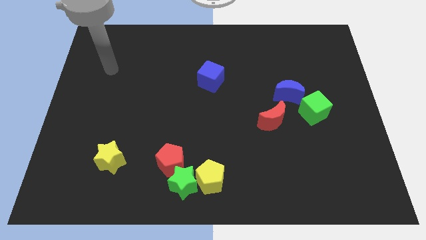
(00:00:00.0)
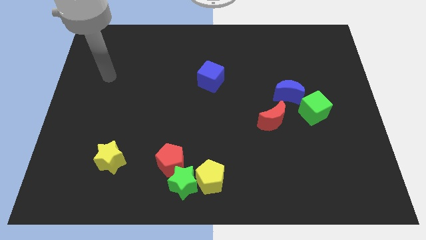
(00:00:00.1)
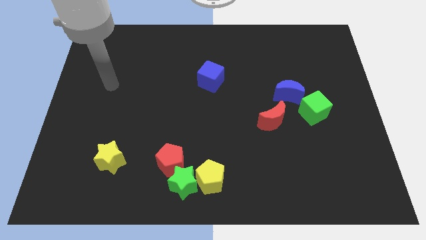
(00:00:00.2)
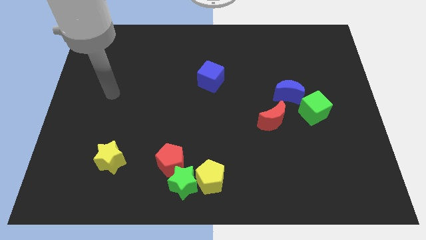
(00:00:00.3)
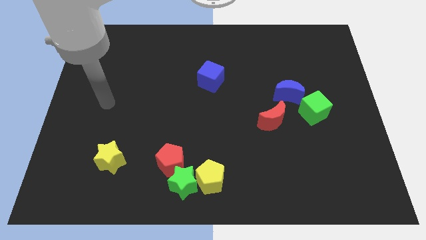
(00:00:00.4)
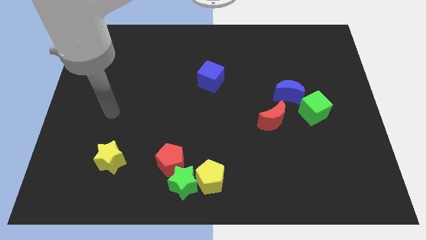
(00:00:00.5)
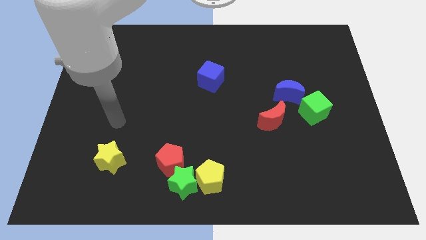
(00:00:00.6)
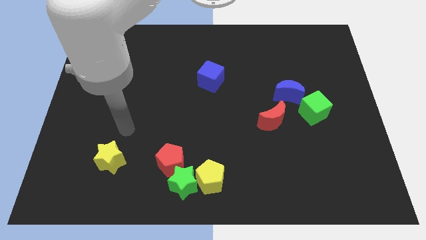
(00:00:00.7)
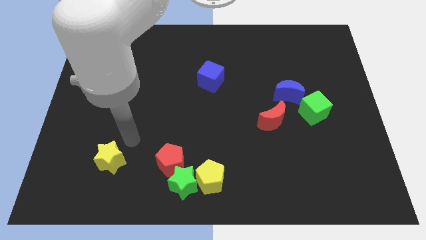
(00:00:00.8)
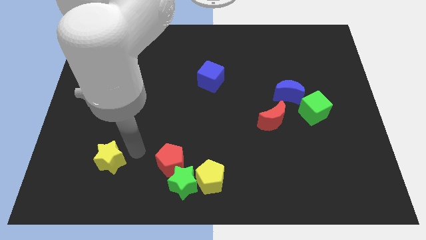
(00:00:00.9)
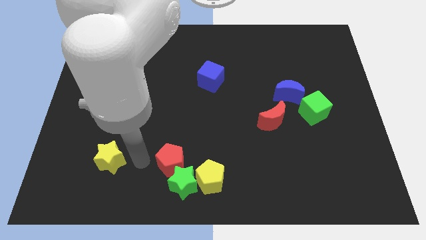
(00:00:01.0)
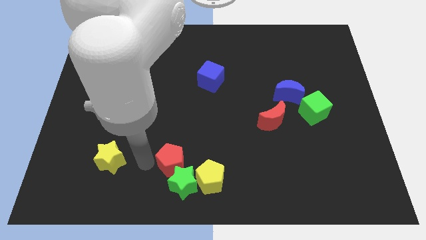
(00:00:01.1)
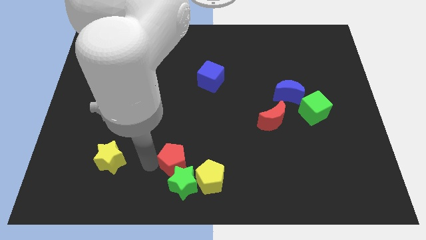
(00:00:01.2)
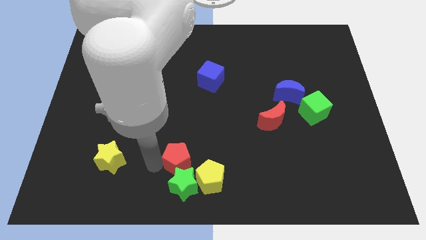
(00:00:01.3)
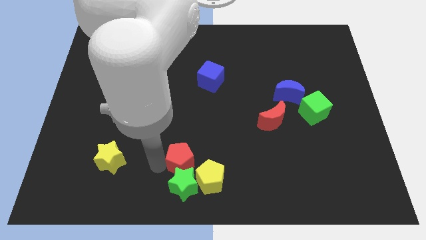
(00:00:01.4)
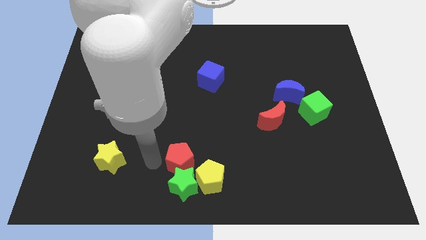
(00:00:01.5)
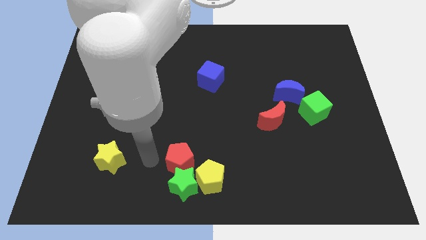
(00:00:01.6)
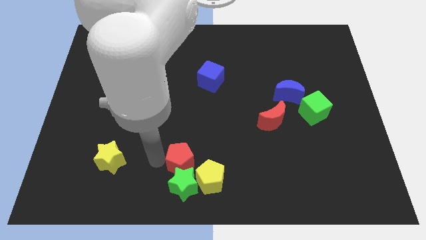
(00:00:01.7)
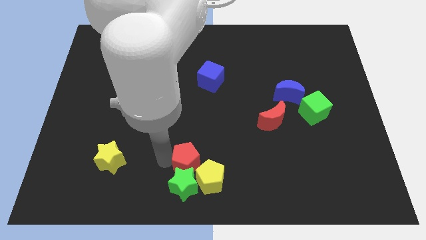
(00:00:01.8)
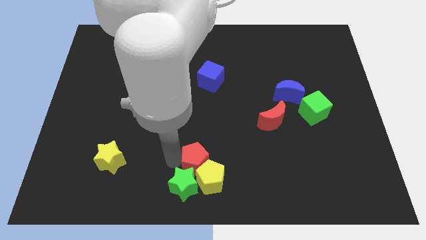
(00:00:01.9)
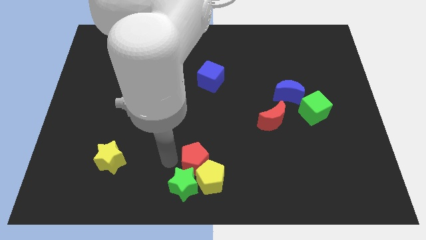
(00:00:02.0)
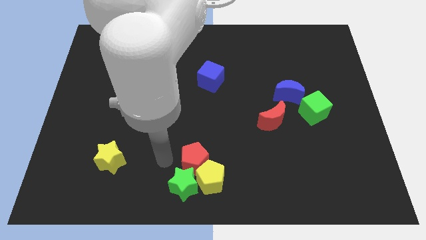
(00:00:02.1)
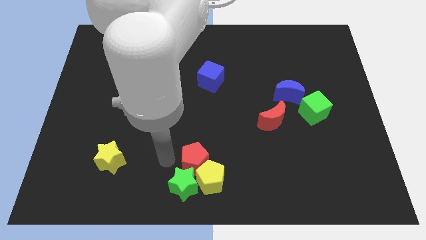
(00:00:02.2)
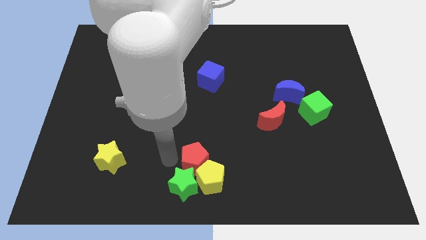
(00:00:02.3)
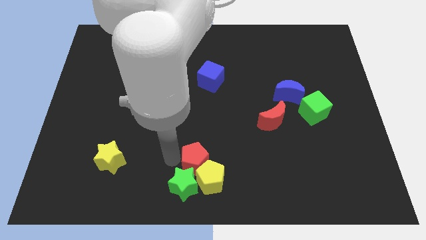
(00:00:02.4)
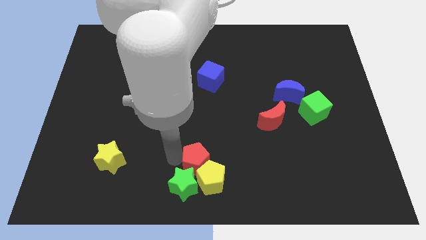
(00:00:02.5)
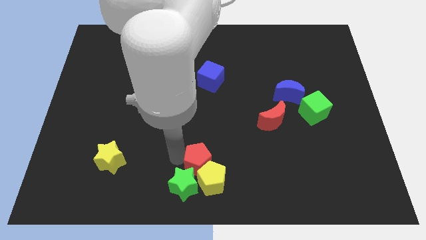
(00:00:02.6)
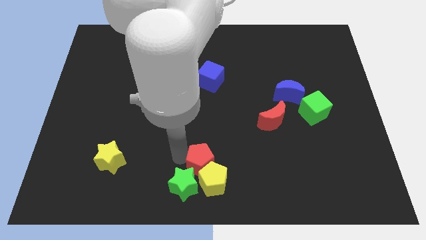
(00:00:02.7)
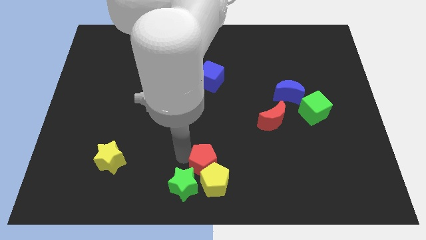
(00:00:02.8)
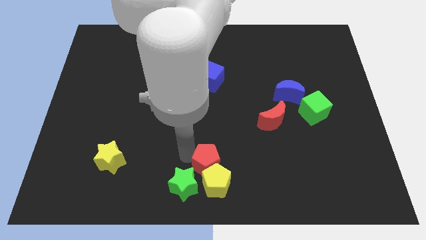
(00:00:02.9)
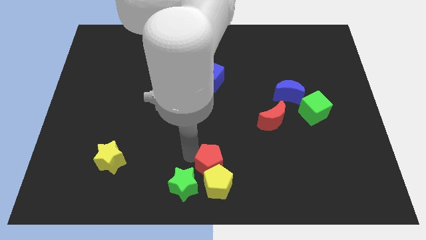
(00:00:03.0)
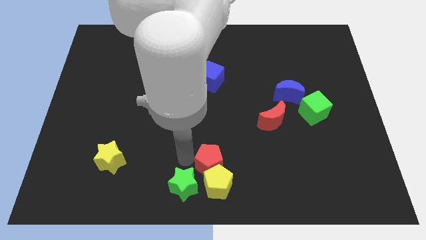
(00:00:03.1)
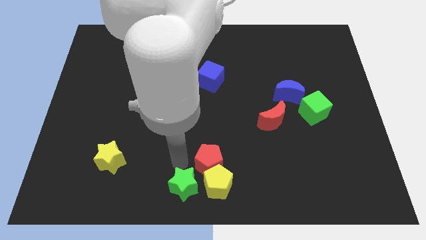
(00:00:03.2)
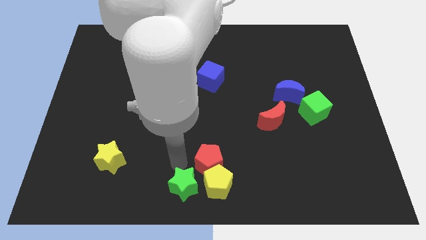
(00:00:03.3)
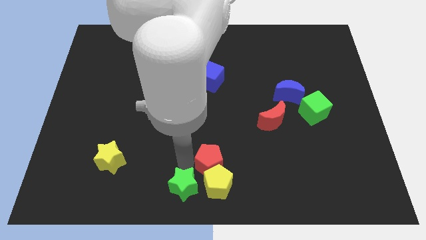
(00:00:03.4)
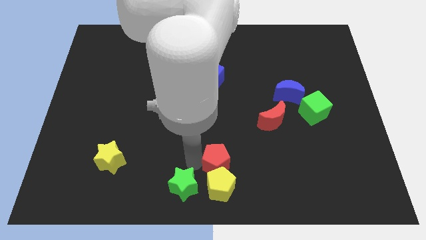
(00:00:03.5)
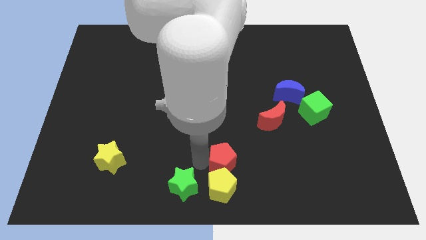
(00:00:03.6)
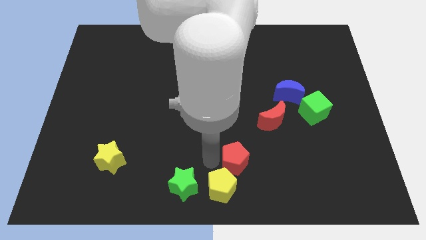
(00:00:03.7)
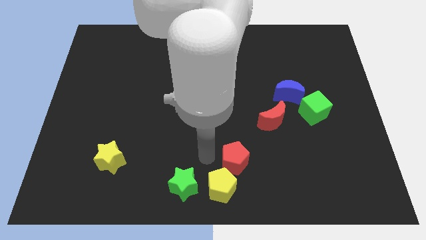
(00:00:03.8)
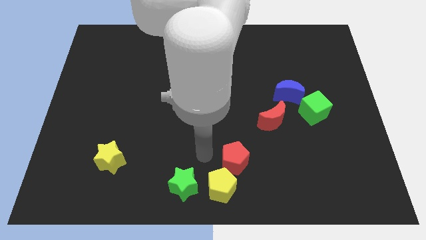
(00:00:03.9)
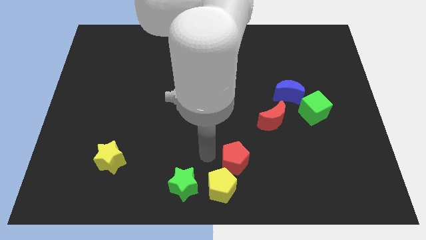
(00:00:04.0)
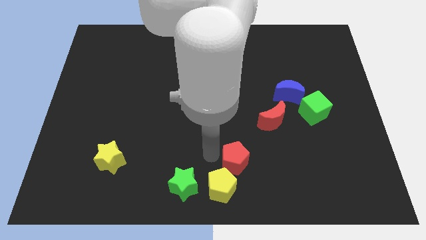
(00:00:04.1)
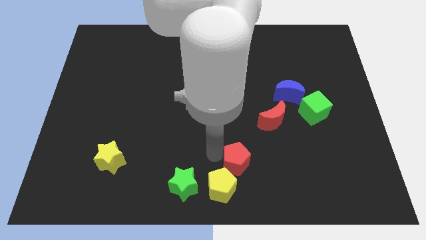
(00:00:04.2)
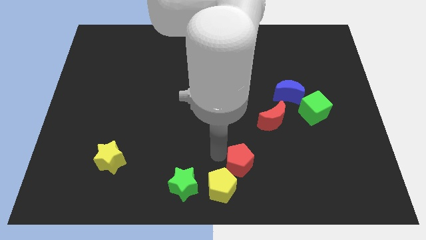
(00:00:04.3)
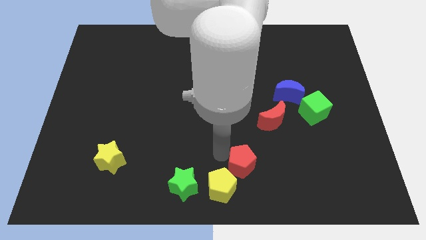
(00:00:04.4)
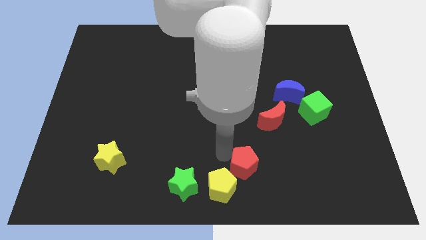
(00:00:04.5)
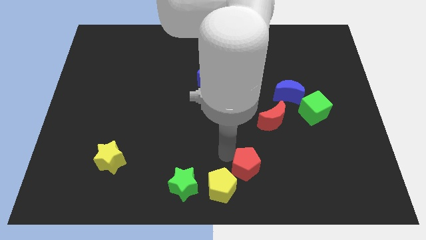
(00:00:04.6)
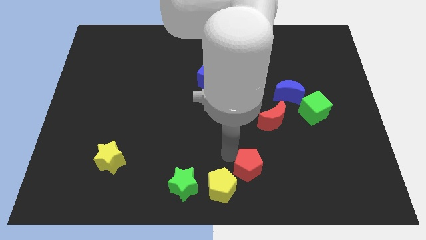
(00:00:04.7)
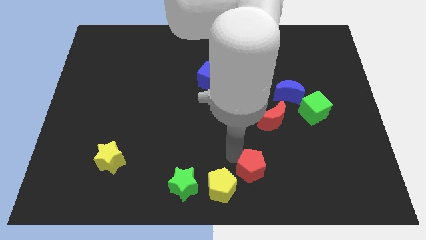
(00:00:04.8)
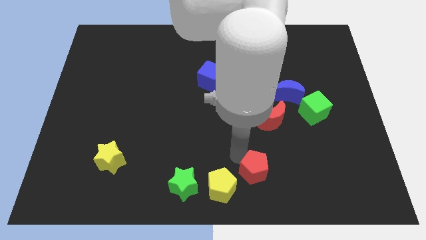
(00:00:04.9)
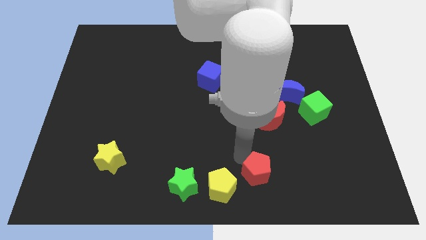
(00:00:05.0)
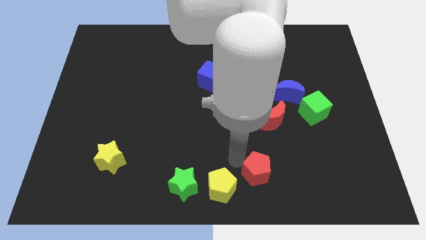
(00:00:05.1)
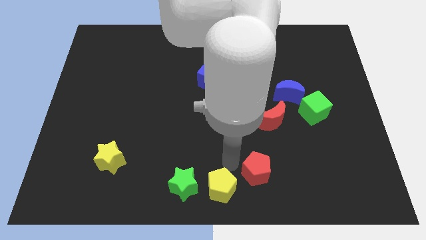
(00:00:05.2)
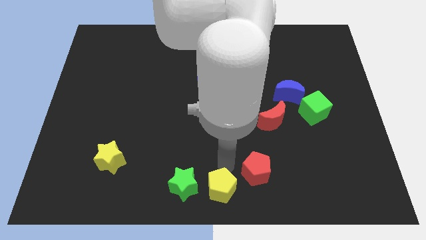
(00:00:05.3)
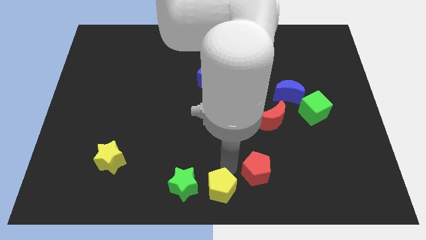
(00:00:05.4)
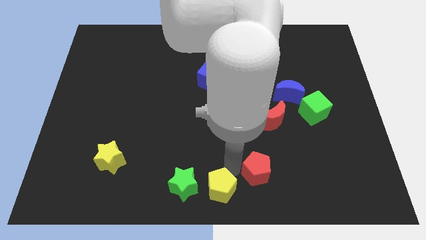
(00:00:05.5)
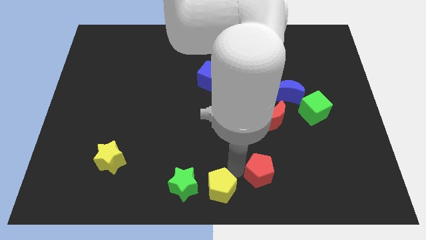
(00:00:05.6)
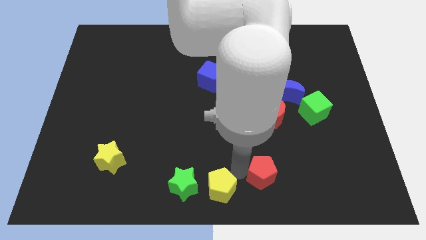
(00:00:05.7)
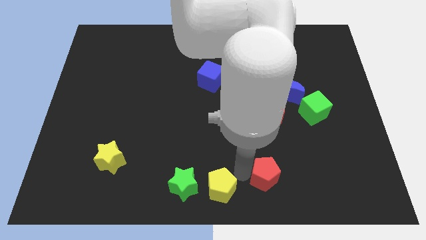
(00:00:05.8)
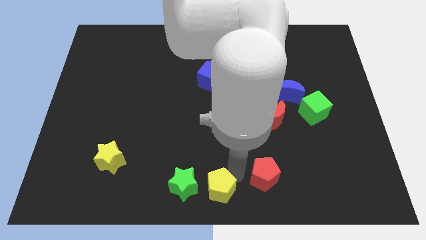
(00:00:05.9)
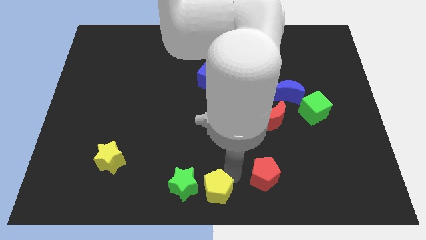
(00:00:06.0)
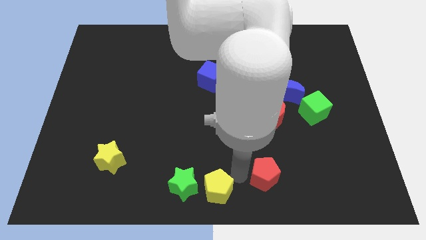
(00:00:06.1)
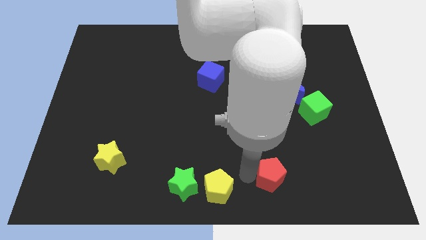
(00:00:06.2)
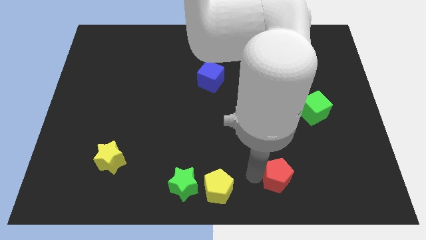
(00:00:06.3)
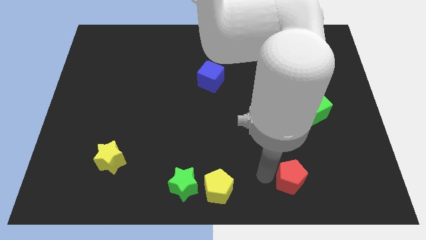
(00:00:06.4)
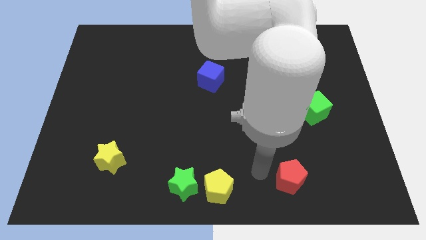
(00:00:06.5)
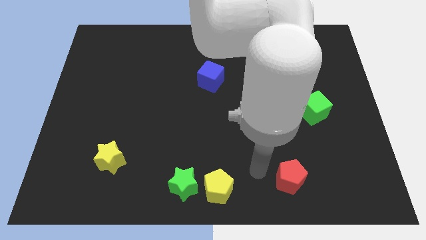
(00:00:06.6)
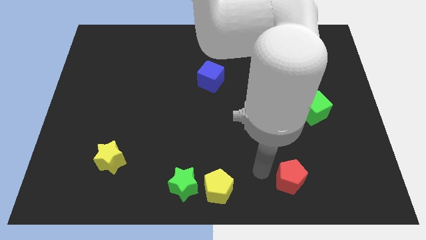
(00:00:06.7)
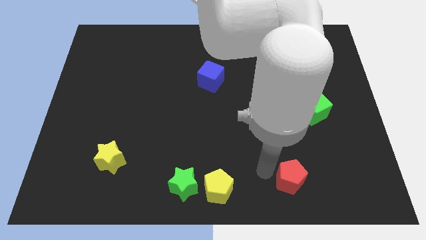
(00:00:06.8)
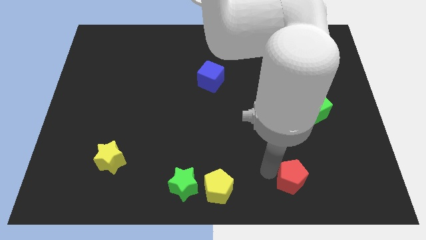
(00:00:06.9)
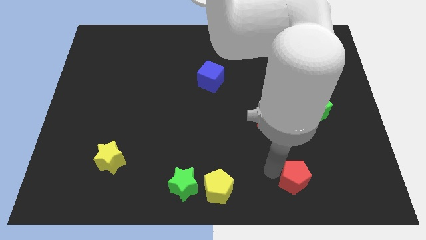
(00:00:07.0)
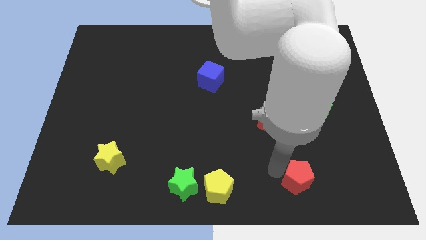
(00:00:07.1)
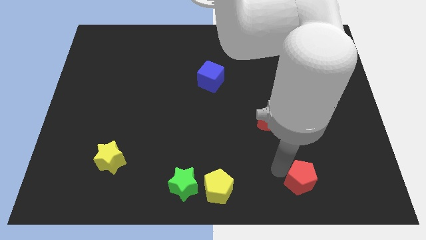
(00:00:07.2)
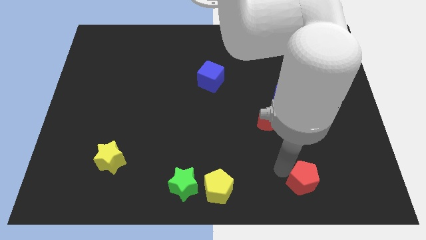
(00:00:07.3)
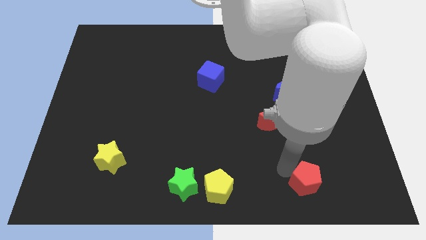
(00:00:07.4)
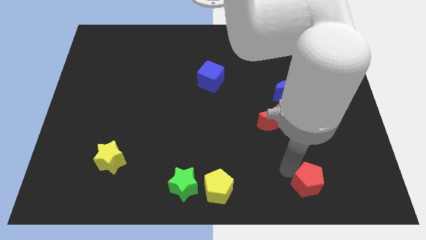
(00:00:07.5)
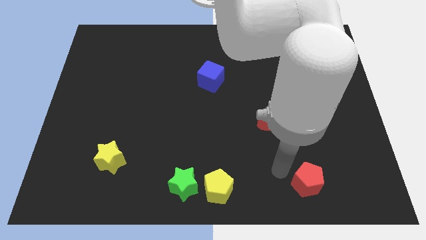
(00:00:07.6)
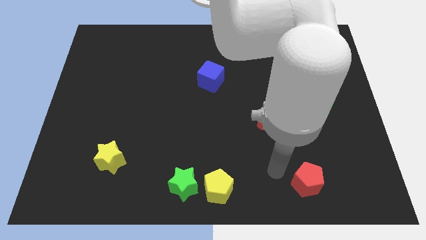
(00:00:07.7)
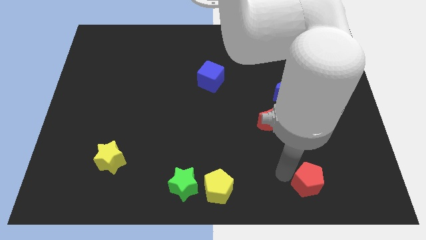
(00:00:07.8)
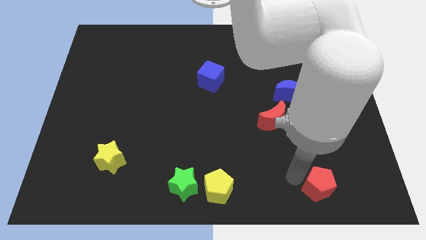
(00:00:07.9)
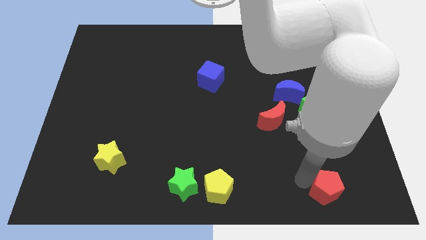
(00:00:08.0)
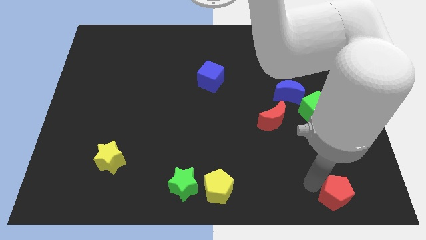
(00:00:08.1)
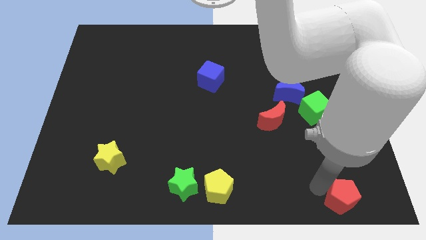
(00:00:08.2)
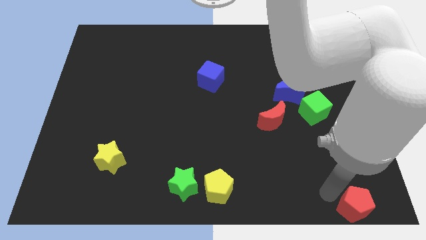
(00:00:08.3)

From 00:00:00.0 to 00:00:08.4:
move the red pentagon to the bottom right corner
